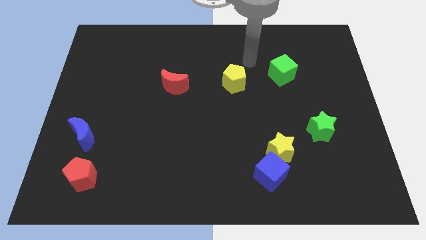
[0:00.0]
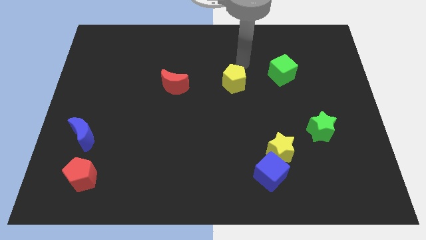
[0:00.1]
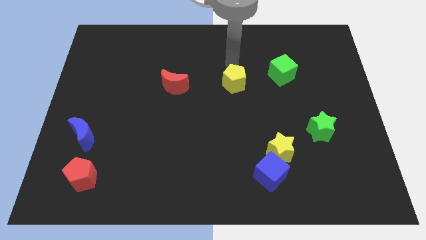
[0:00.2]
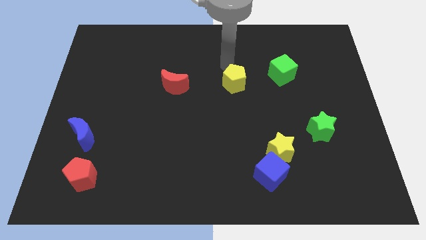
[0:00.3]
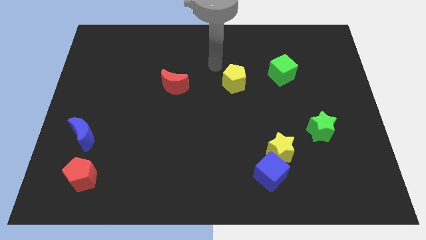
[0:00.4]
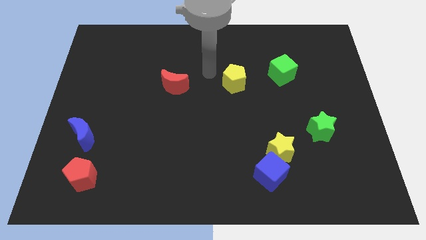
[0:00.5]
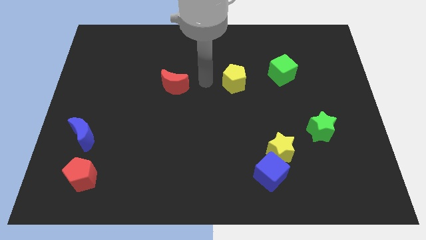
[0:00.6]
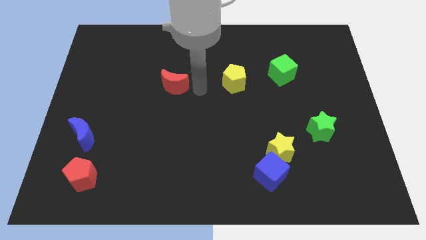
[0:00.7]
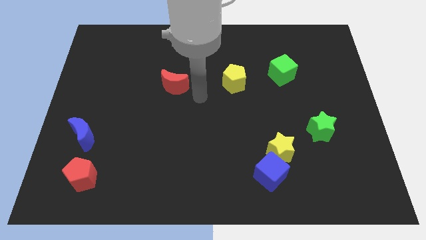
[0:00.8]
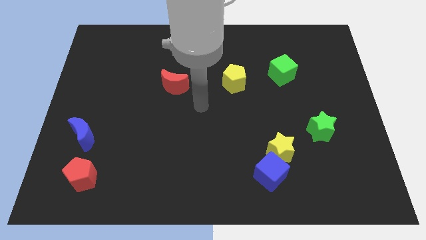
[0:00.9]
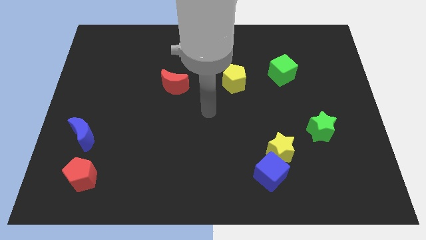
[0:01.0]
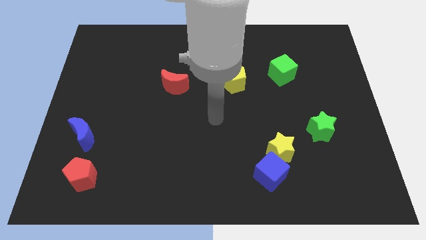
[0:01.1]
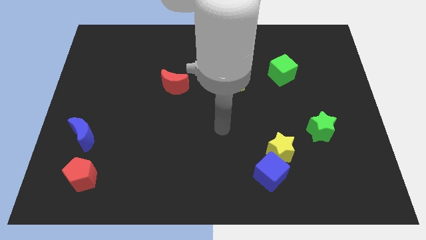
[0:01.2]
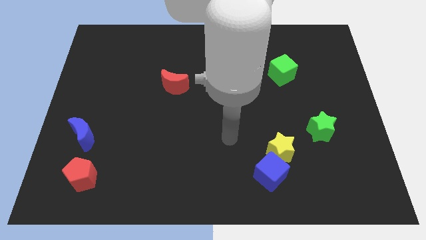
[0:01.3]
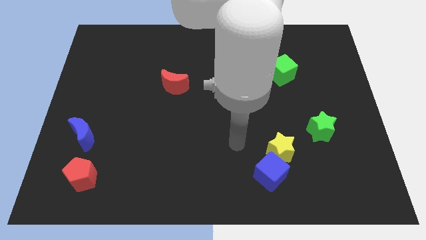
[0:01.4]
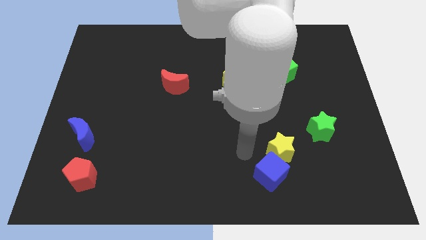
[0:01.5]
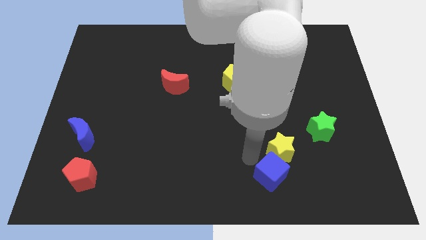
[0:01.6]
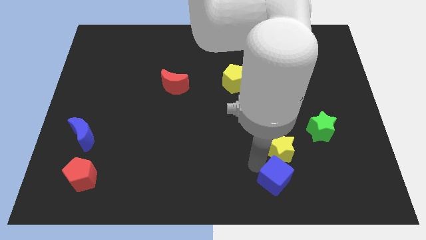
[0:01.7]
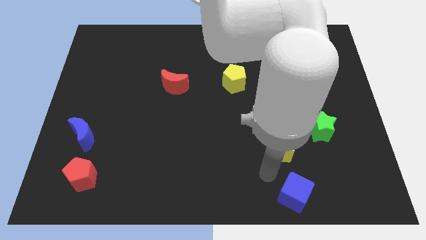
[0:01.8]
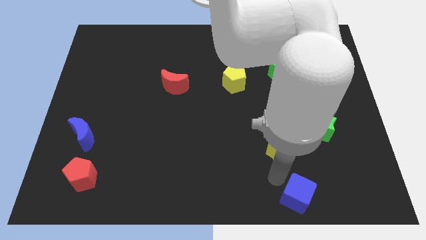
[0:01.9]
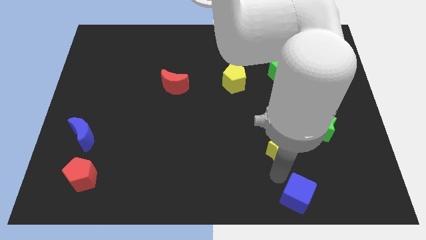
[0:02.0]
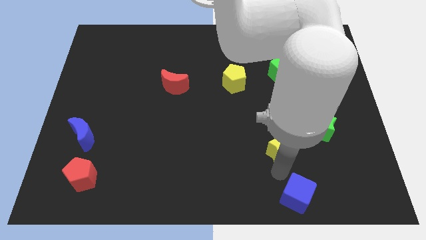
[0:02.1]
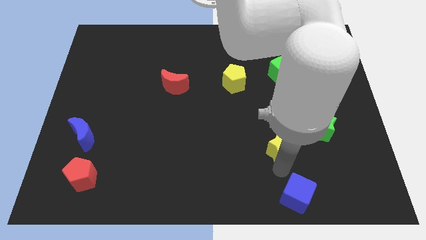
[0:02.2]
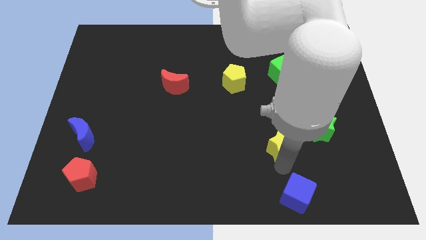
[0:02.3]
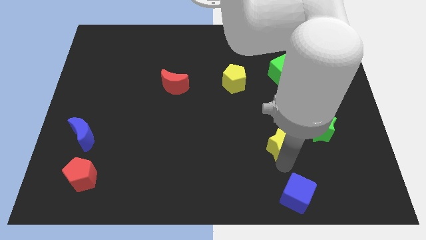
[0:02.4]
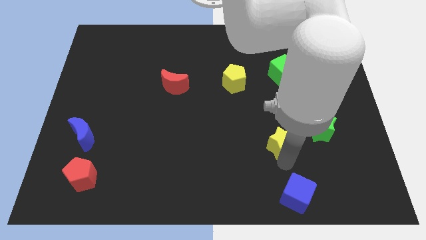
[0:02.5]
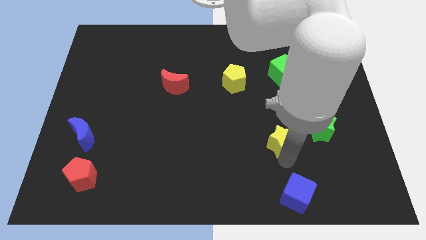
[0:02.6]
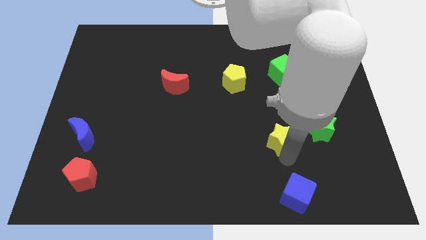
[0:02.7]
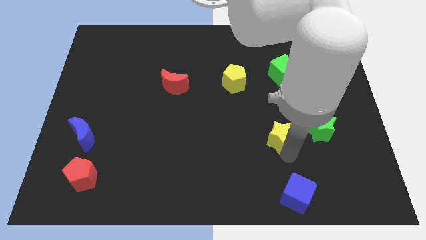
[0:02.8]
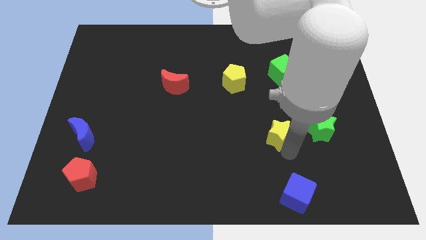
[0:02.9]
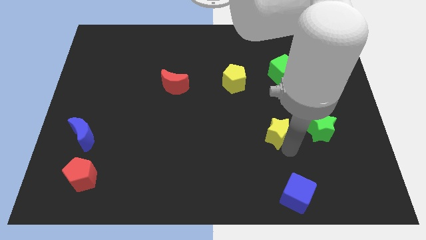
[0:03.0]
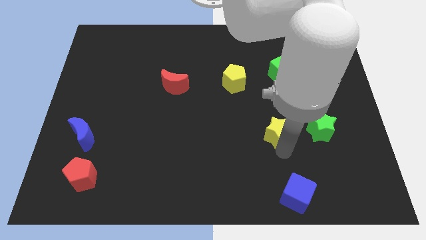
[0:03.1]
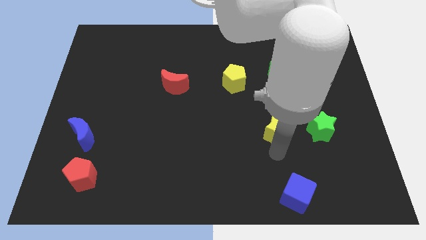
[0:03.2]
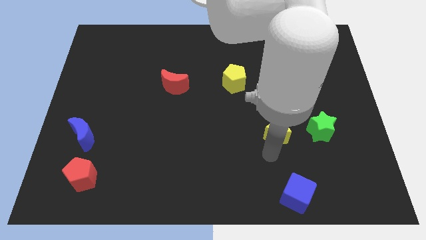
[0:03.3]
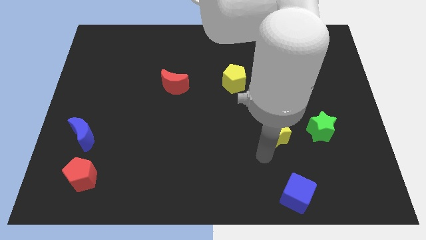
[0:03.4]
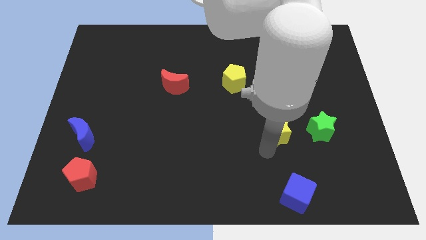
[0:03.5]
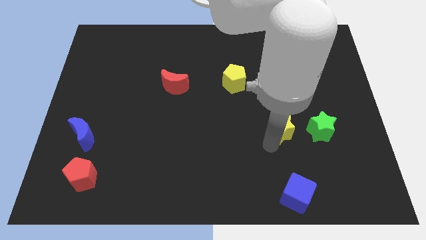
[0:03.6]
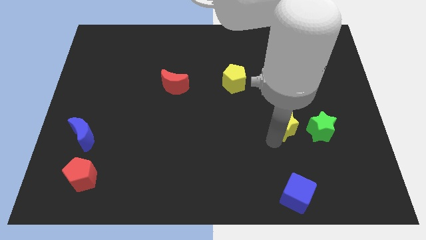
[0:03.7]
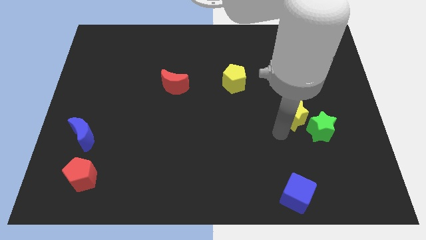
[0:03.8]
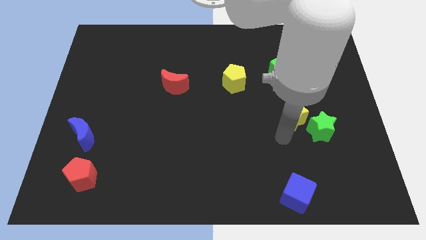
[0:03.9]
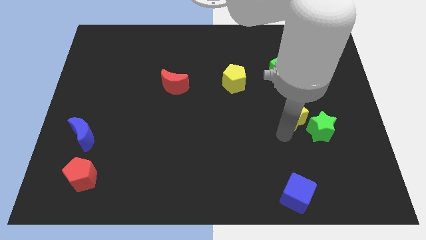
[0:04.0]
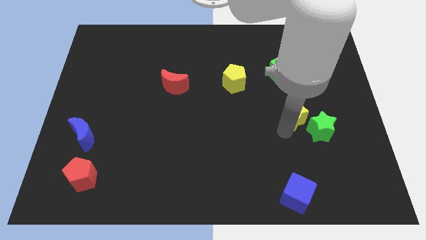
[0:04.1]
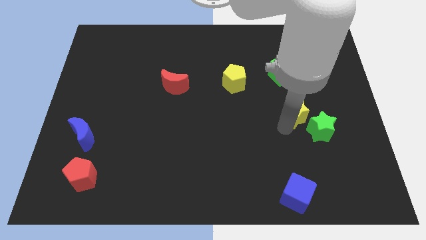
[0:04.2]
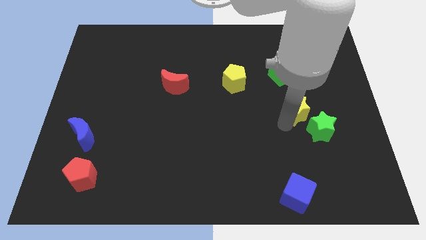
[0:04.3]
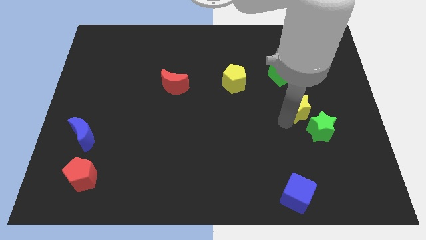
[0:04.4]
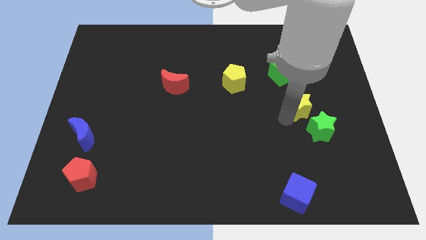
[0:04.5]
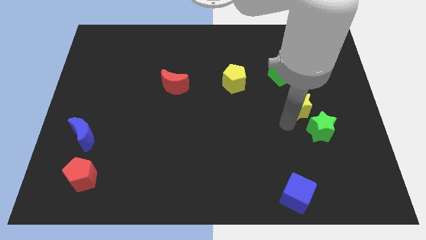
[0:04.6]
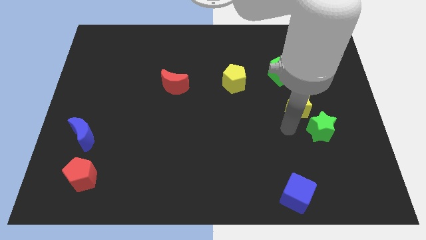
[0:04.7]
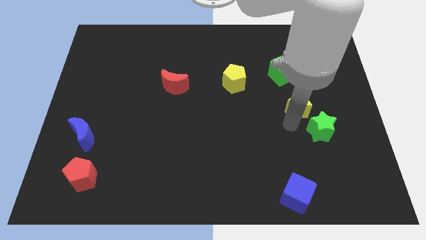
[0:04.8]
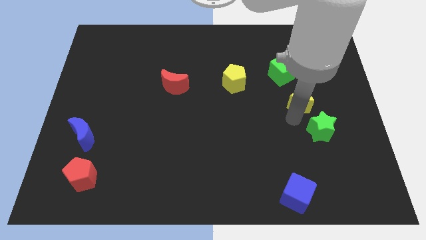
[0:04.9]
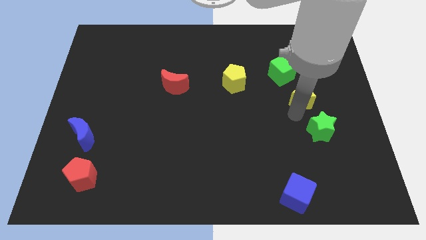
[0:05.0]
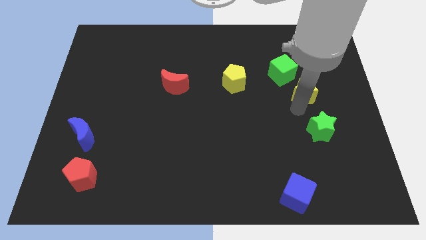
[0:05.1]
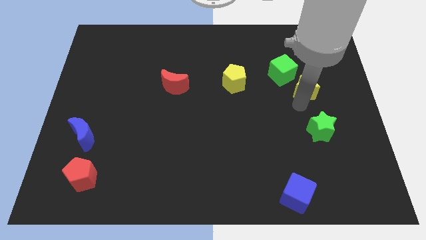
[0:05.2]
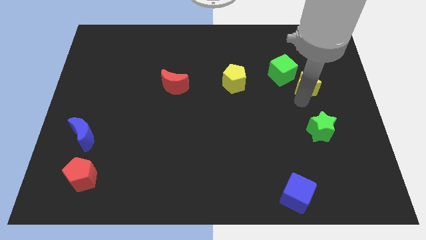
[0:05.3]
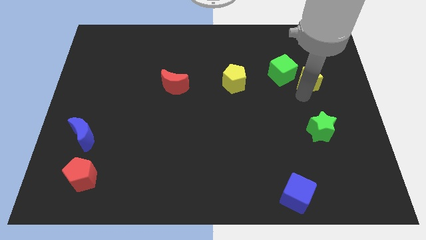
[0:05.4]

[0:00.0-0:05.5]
move the yellow star just right of the green cube

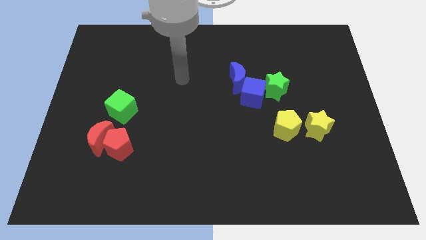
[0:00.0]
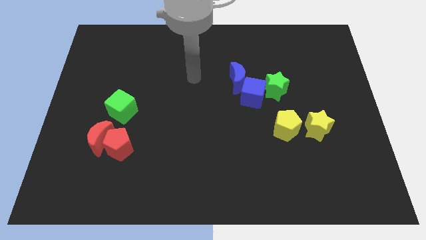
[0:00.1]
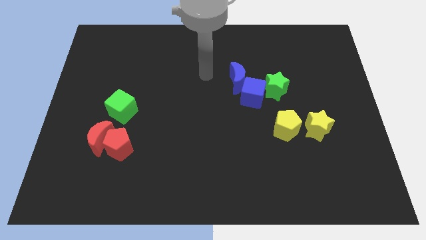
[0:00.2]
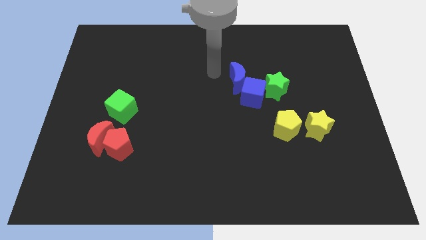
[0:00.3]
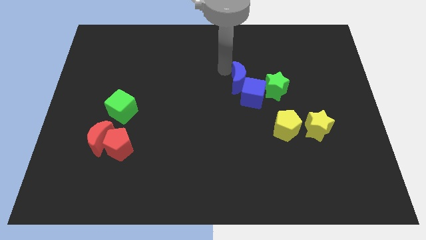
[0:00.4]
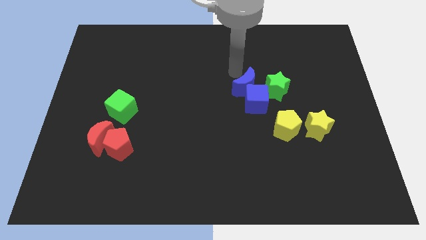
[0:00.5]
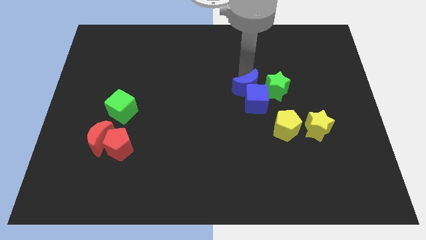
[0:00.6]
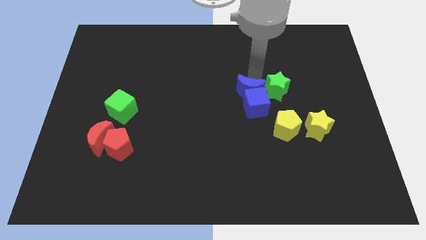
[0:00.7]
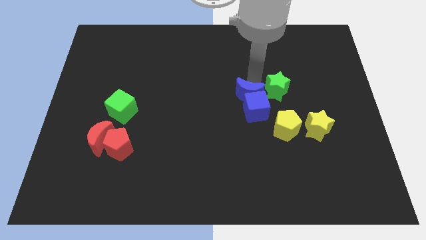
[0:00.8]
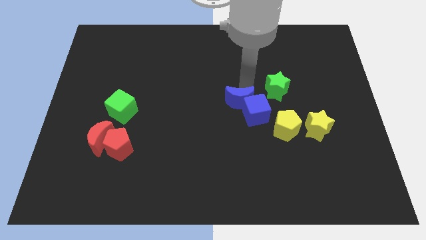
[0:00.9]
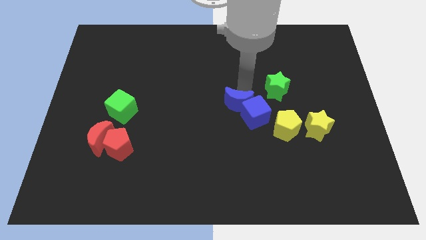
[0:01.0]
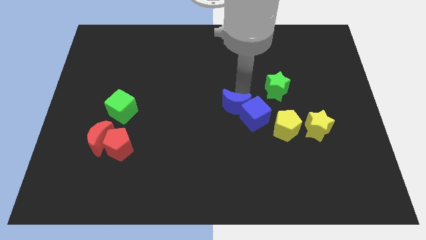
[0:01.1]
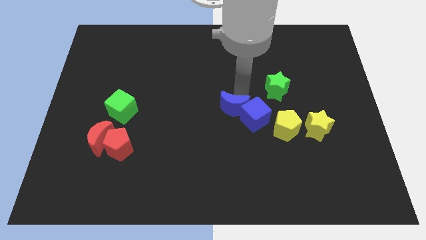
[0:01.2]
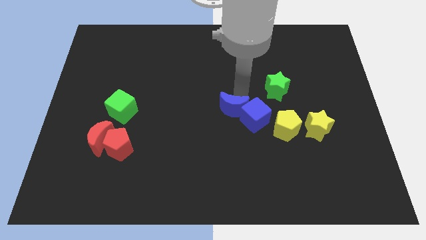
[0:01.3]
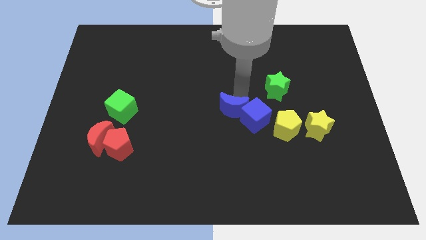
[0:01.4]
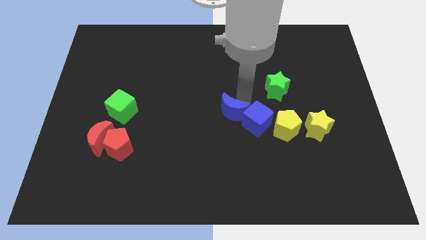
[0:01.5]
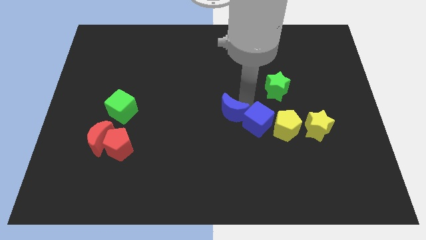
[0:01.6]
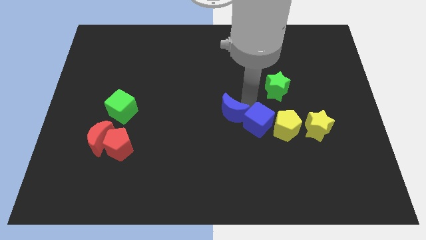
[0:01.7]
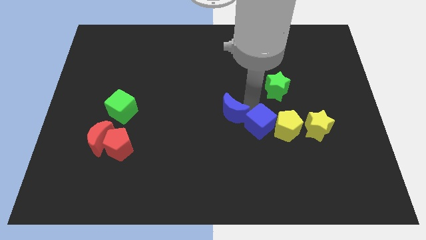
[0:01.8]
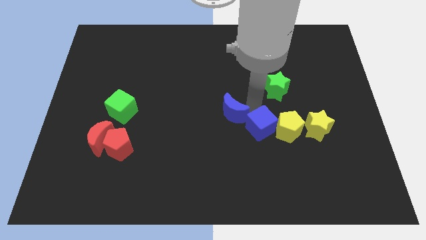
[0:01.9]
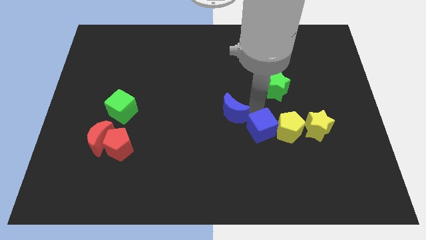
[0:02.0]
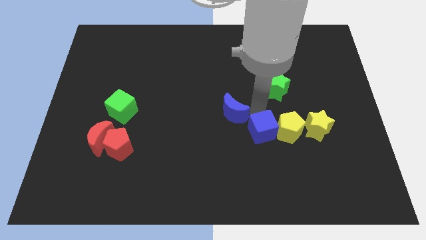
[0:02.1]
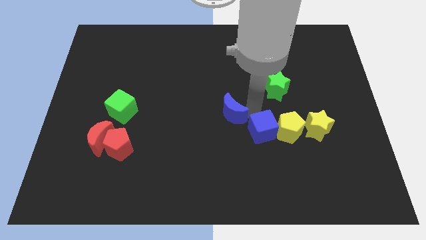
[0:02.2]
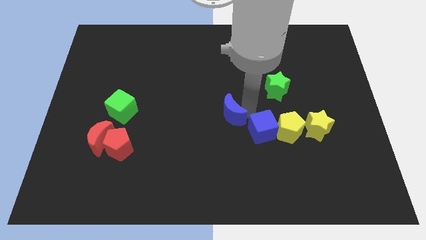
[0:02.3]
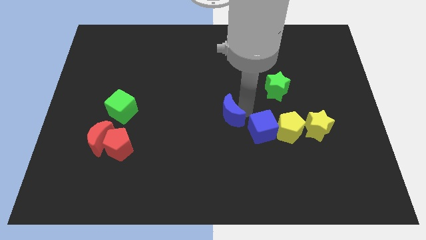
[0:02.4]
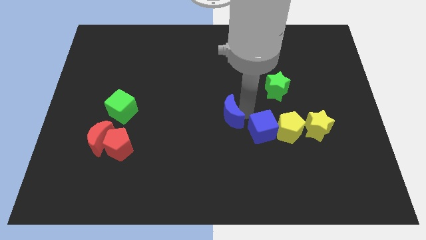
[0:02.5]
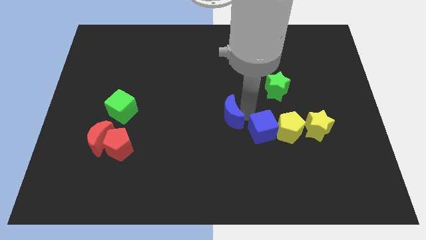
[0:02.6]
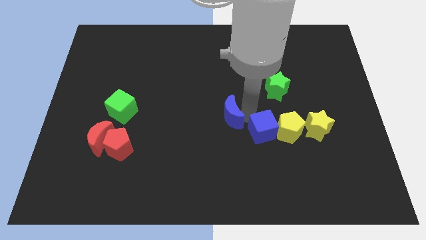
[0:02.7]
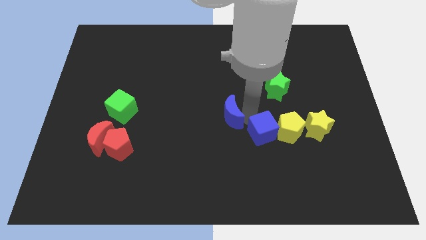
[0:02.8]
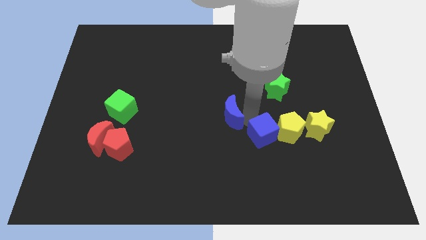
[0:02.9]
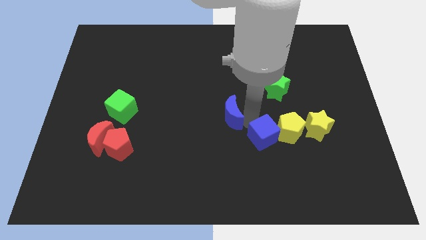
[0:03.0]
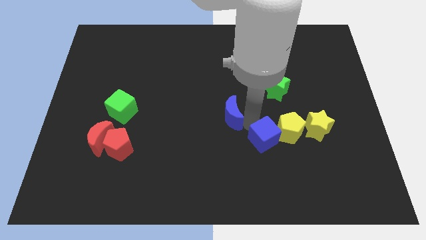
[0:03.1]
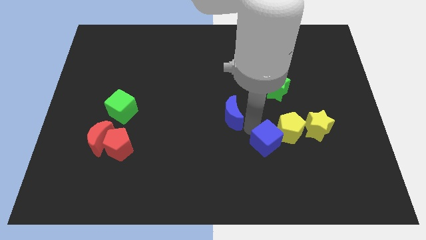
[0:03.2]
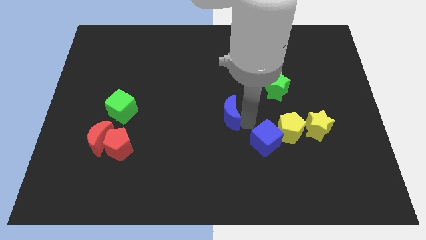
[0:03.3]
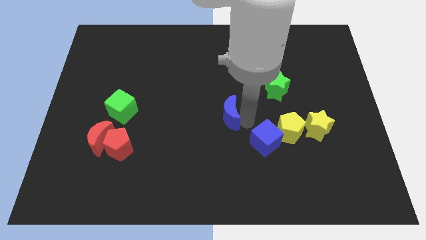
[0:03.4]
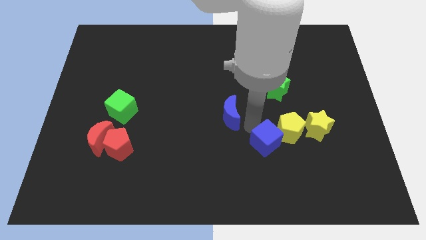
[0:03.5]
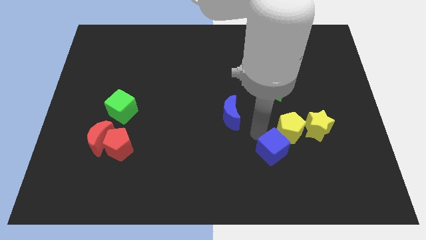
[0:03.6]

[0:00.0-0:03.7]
slide the blue cube to the bottom side of the yellow pentagon
